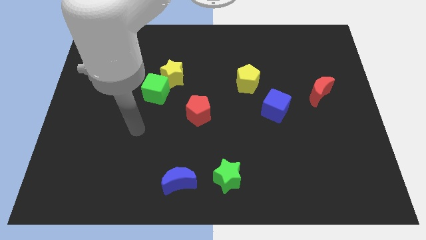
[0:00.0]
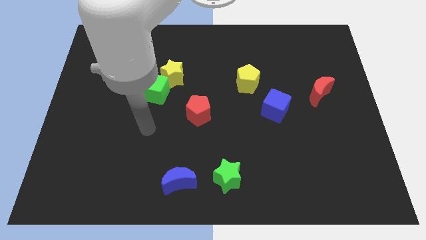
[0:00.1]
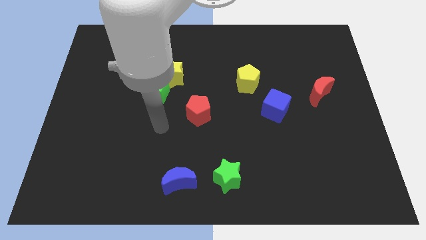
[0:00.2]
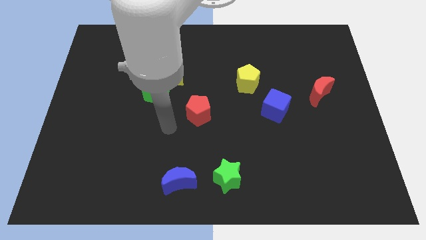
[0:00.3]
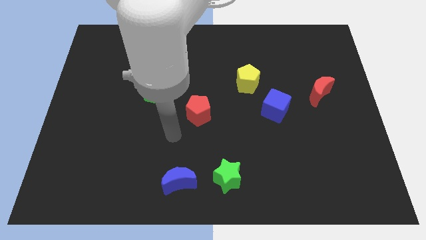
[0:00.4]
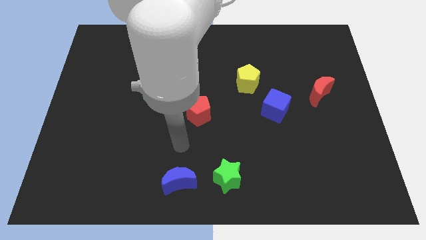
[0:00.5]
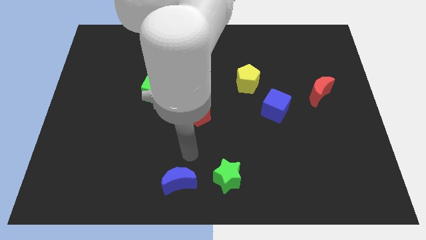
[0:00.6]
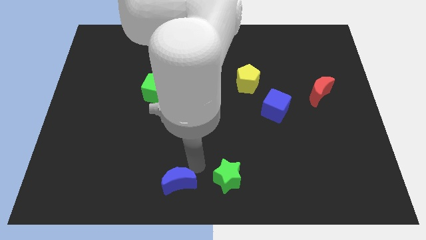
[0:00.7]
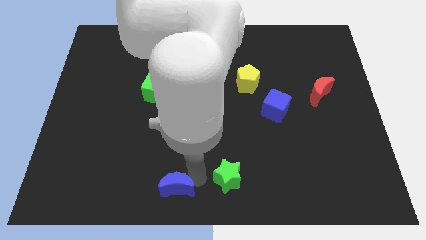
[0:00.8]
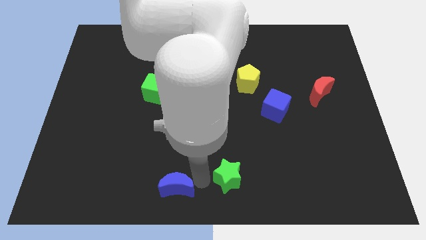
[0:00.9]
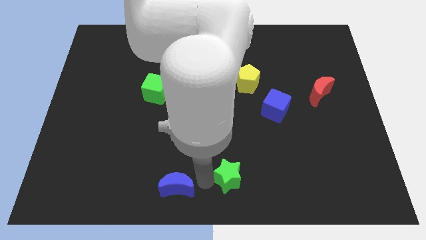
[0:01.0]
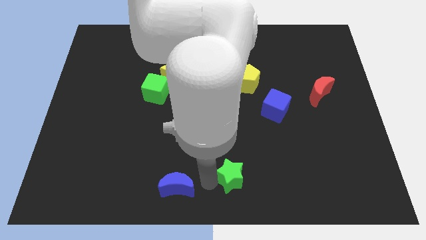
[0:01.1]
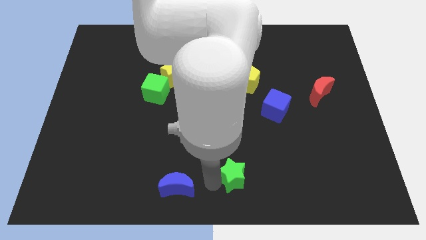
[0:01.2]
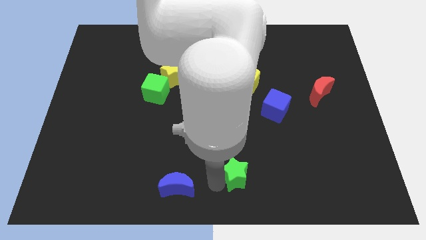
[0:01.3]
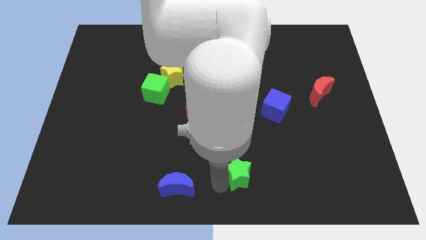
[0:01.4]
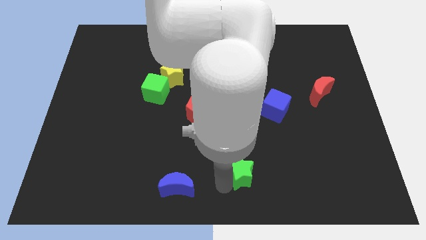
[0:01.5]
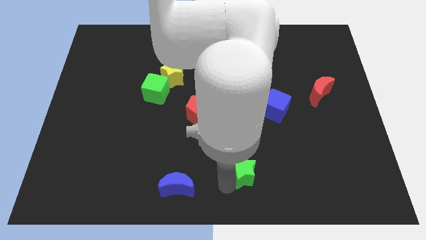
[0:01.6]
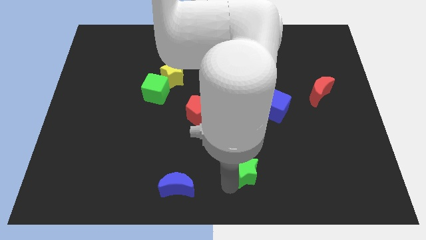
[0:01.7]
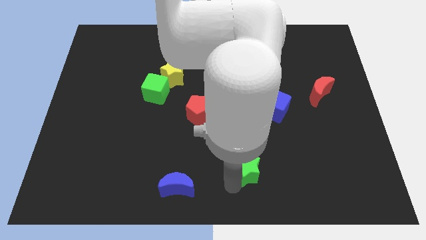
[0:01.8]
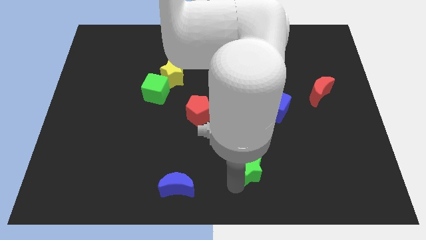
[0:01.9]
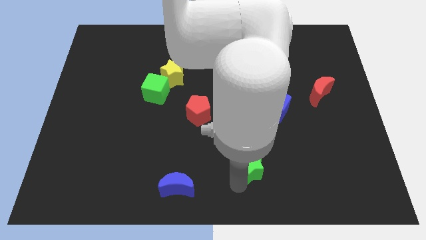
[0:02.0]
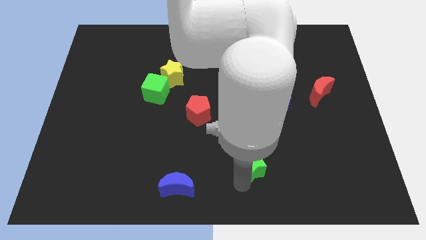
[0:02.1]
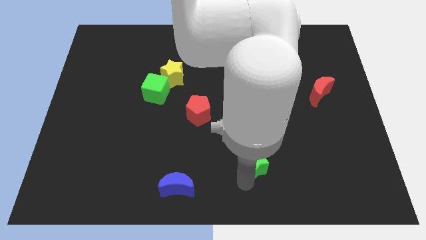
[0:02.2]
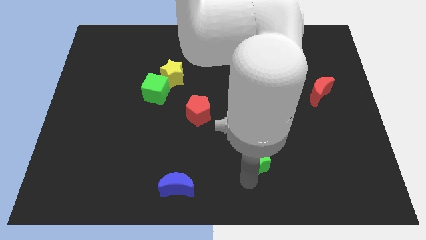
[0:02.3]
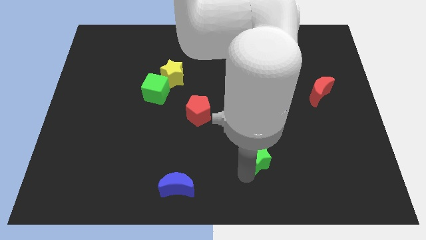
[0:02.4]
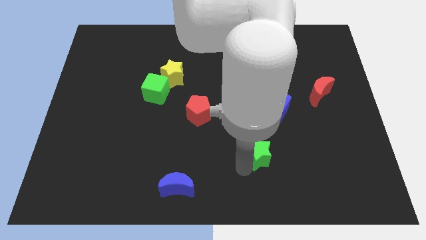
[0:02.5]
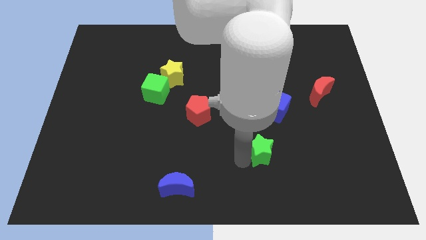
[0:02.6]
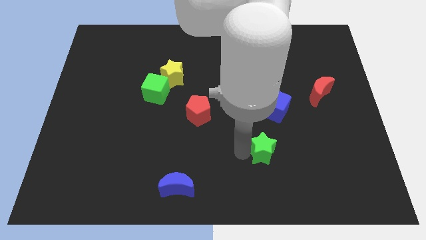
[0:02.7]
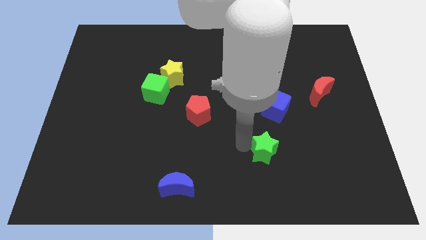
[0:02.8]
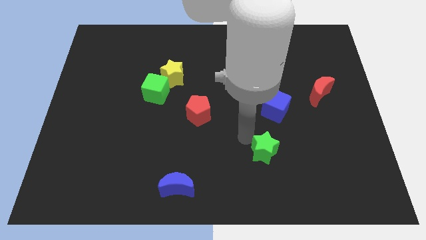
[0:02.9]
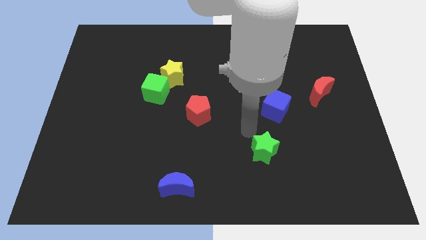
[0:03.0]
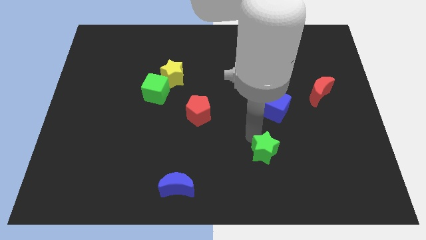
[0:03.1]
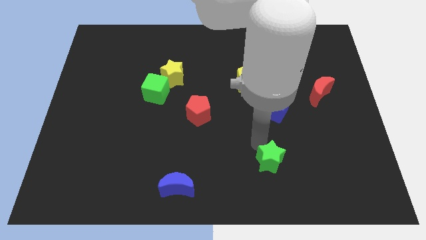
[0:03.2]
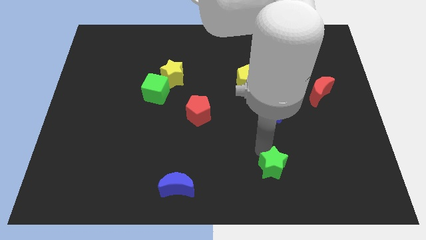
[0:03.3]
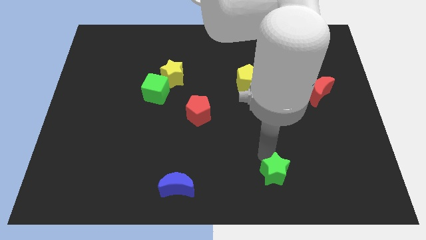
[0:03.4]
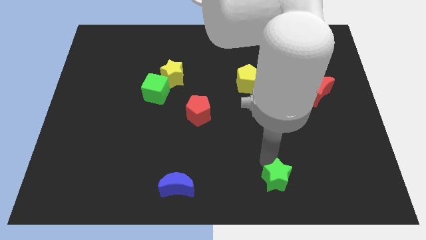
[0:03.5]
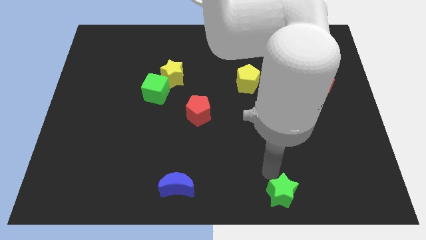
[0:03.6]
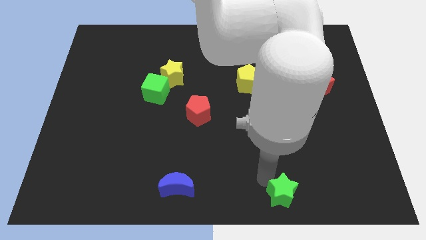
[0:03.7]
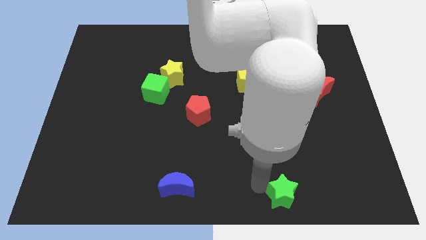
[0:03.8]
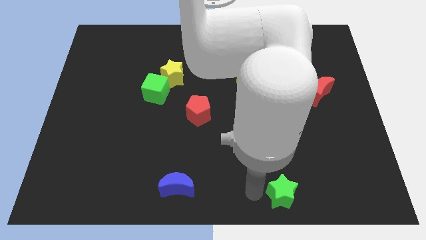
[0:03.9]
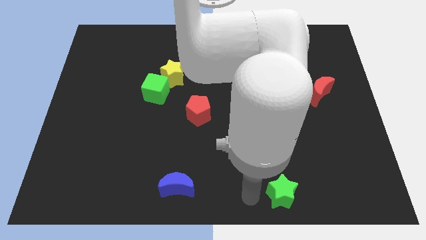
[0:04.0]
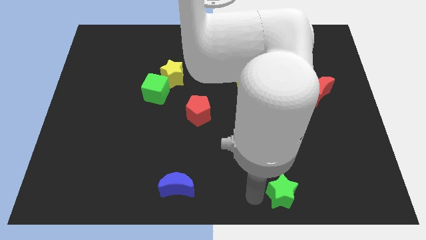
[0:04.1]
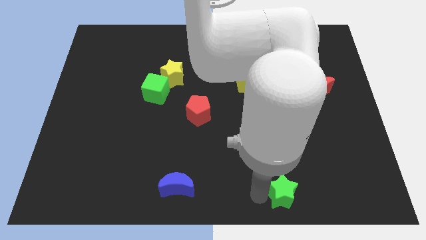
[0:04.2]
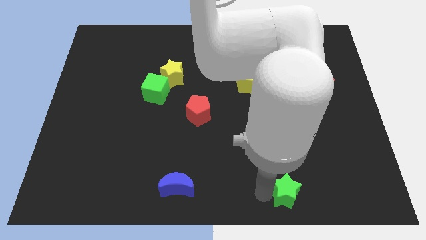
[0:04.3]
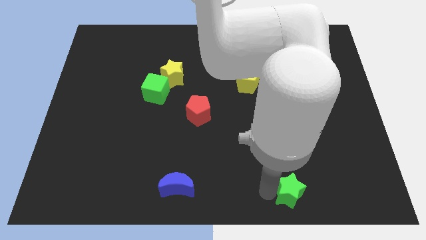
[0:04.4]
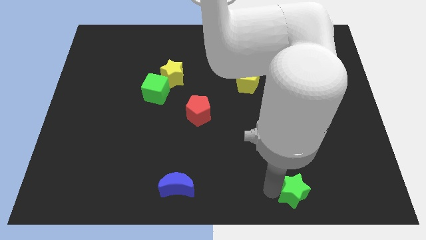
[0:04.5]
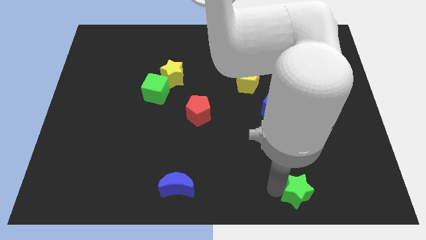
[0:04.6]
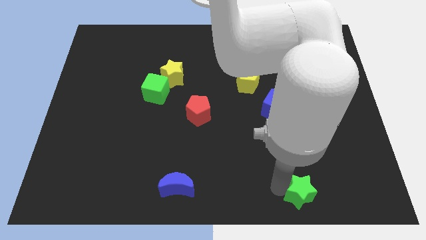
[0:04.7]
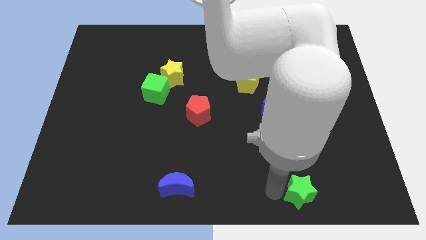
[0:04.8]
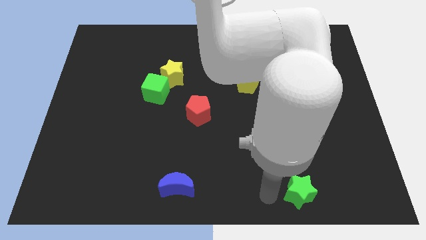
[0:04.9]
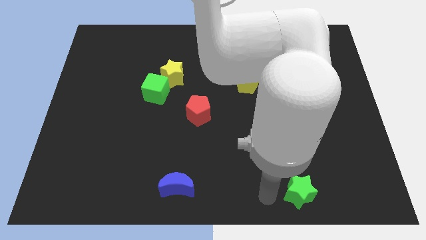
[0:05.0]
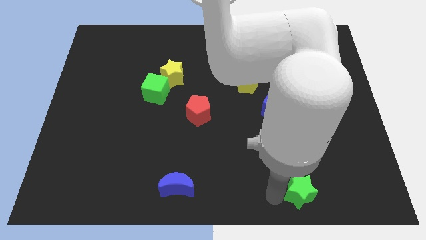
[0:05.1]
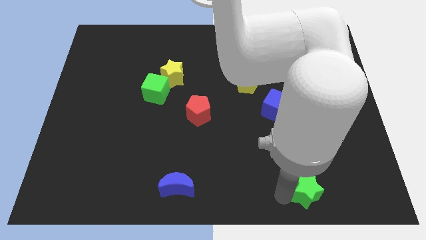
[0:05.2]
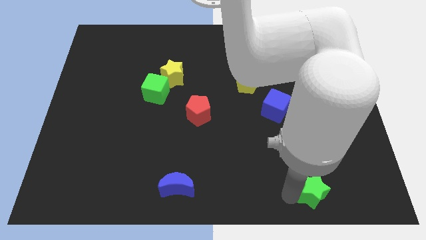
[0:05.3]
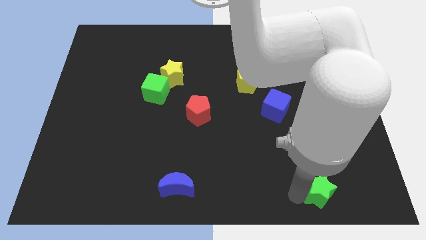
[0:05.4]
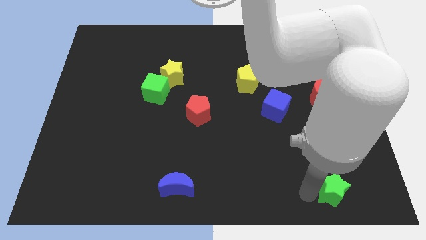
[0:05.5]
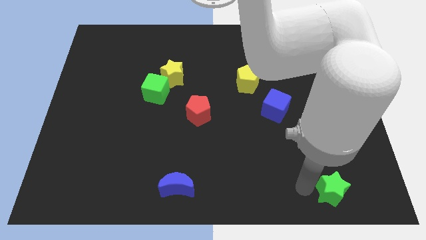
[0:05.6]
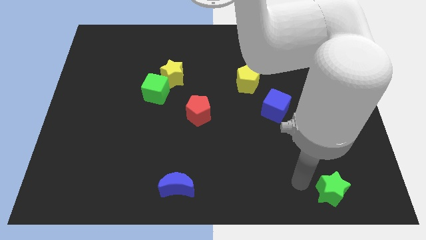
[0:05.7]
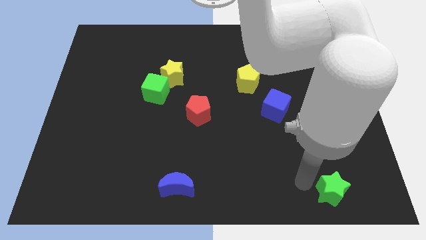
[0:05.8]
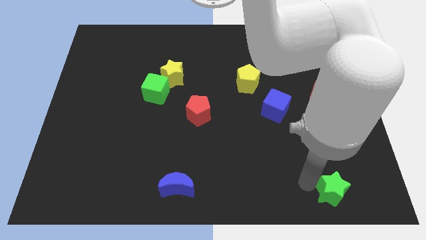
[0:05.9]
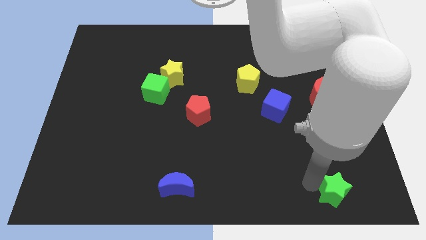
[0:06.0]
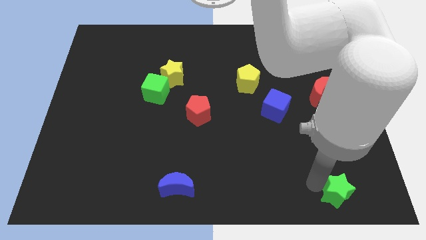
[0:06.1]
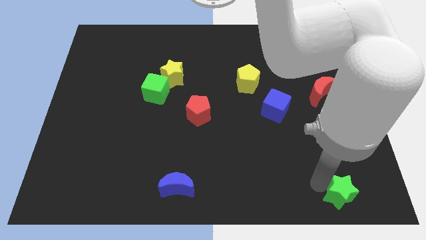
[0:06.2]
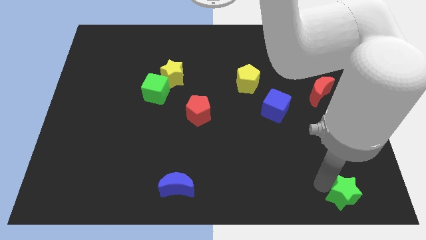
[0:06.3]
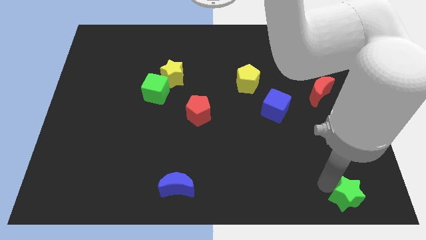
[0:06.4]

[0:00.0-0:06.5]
slide the green star to the bottom right corner

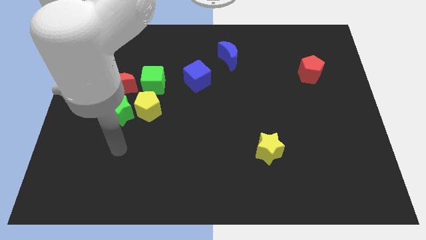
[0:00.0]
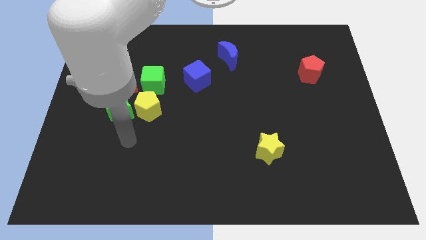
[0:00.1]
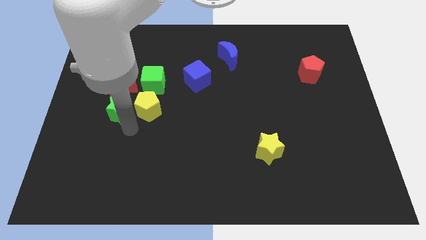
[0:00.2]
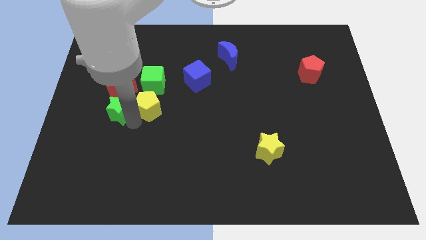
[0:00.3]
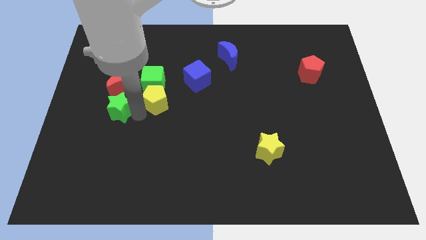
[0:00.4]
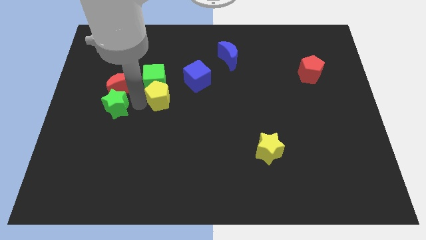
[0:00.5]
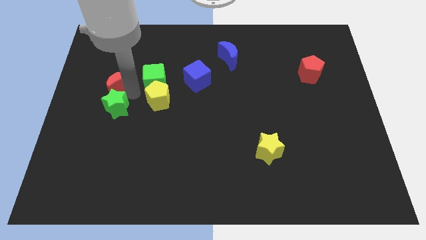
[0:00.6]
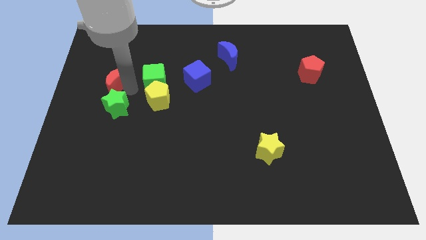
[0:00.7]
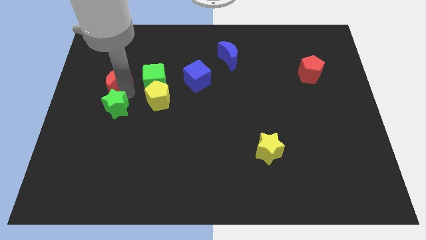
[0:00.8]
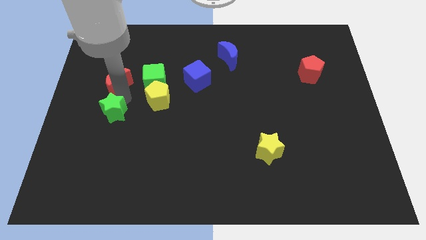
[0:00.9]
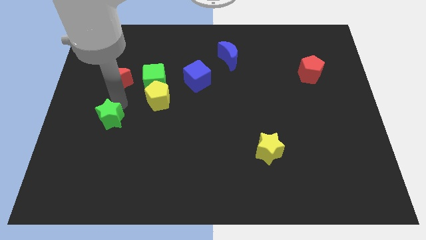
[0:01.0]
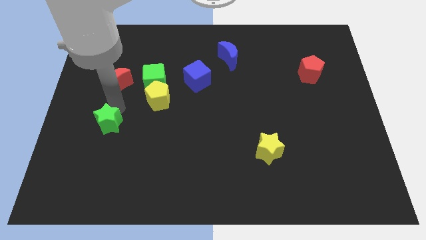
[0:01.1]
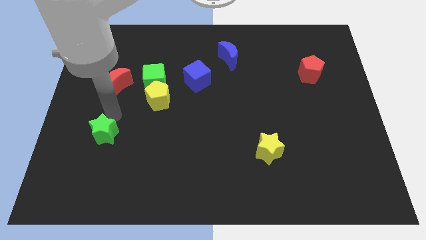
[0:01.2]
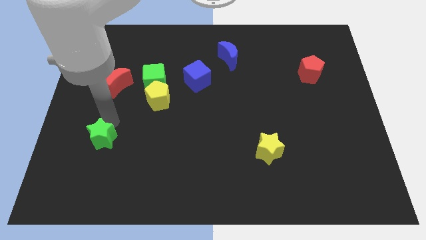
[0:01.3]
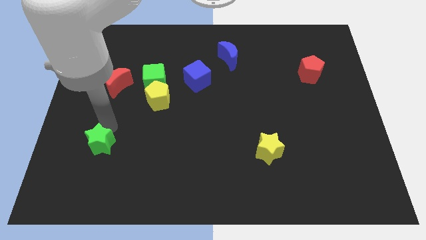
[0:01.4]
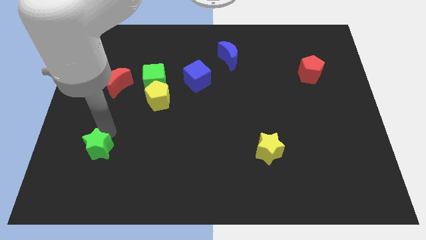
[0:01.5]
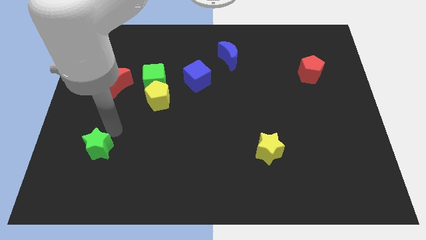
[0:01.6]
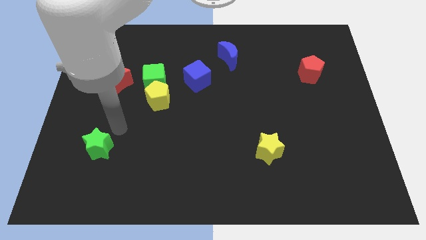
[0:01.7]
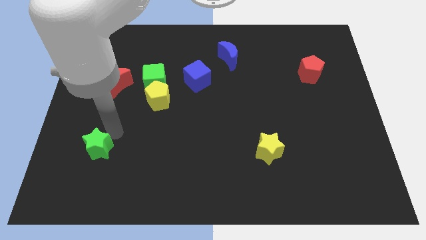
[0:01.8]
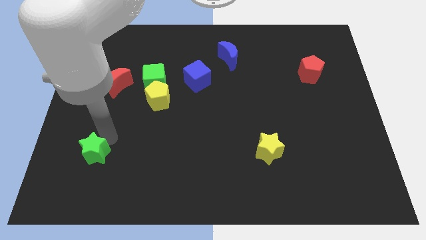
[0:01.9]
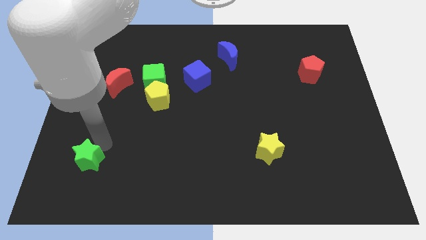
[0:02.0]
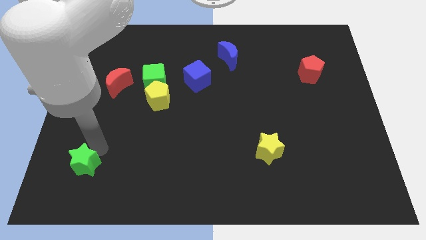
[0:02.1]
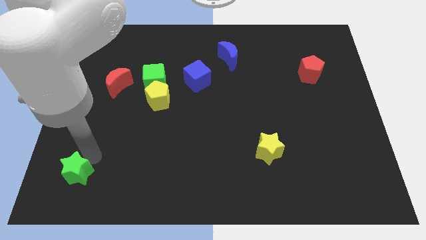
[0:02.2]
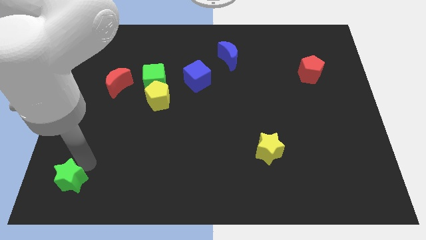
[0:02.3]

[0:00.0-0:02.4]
move the green star to the bottom left corner
